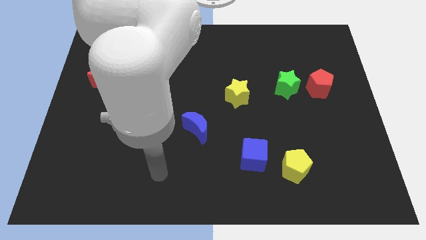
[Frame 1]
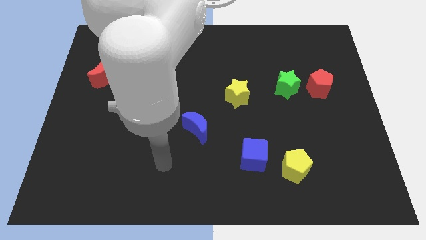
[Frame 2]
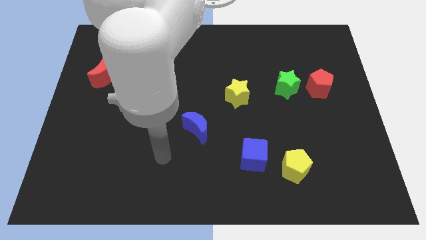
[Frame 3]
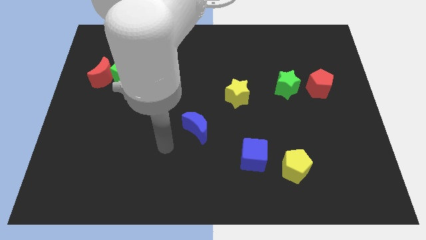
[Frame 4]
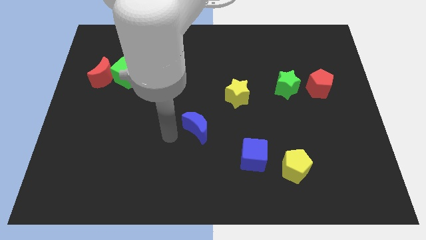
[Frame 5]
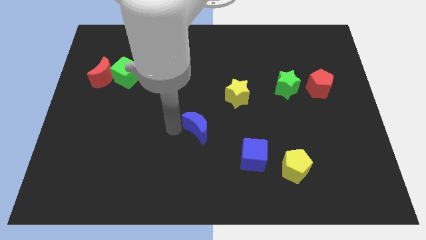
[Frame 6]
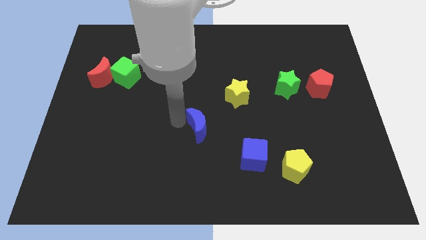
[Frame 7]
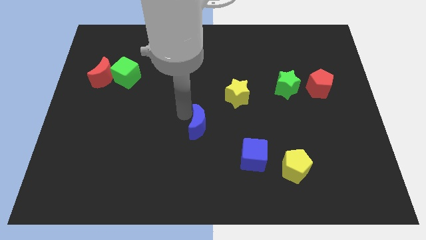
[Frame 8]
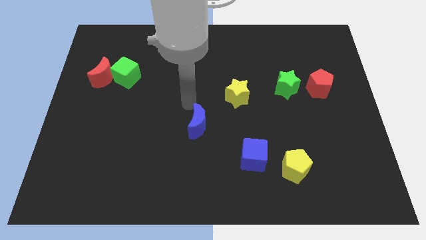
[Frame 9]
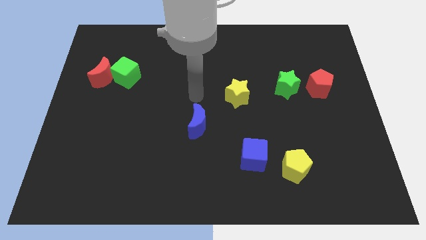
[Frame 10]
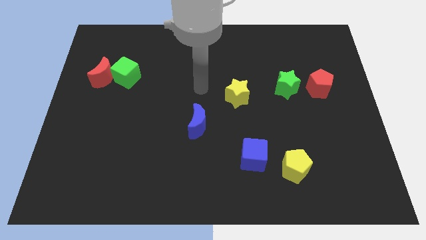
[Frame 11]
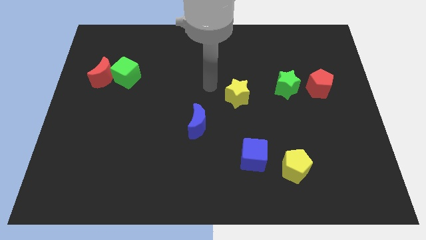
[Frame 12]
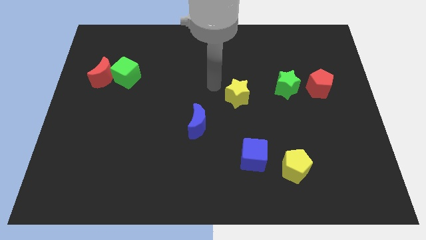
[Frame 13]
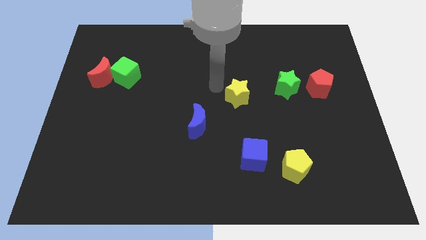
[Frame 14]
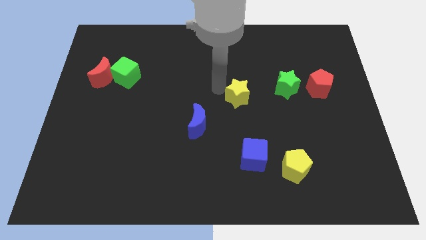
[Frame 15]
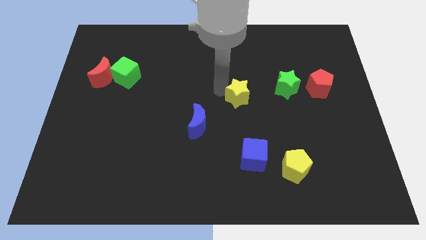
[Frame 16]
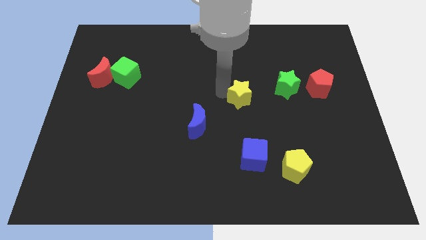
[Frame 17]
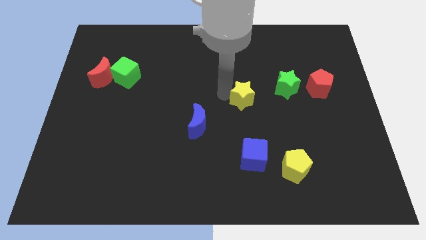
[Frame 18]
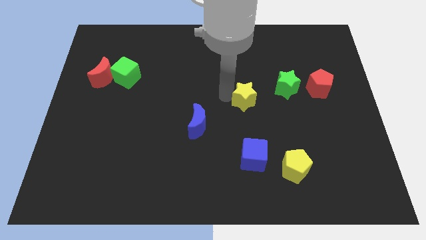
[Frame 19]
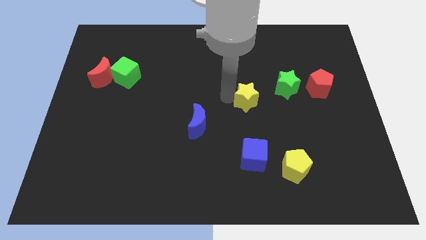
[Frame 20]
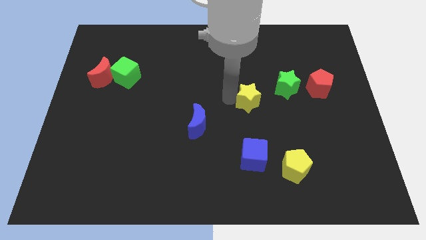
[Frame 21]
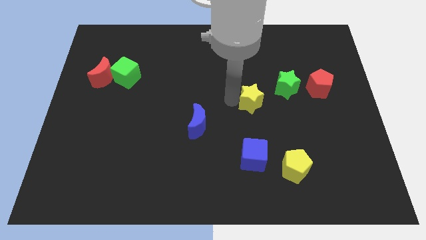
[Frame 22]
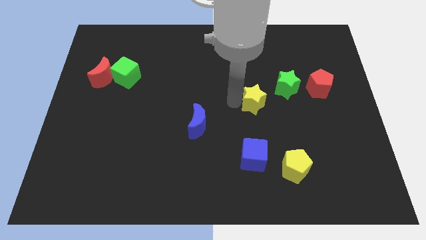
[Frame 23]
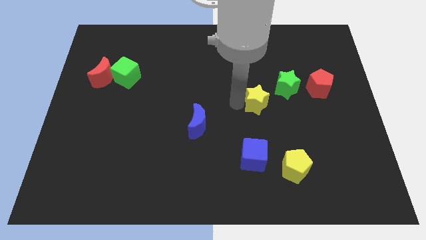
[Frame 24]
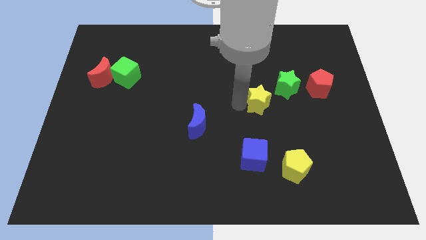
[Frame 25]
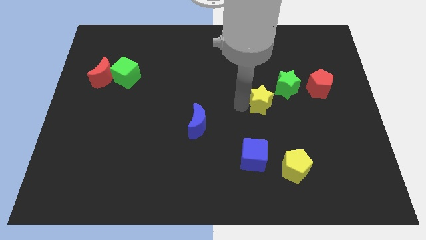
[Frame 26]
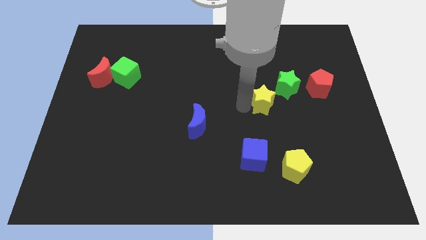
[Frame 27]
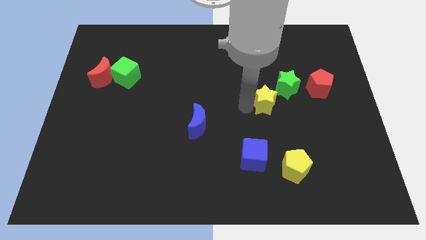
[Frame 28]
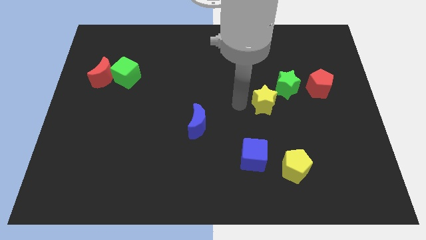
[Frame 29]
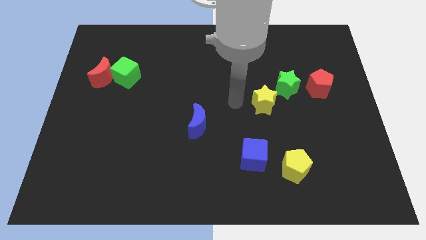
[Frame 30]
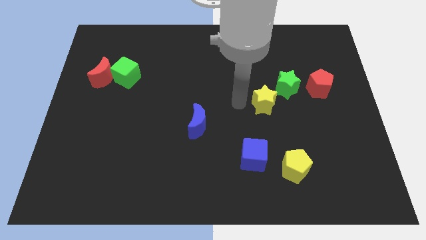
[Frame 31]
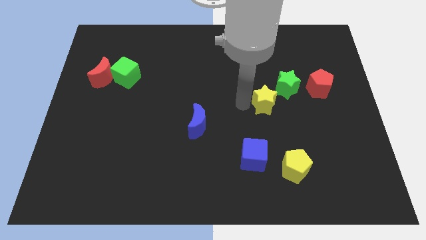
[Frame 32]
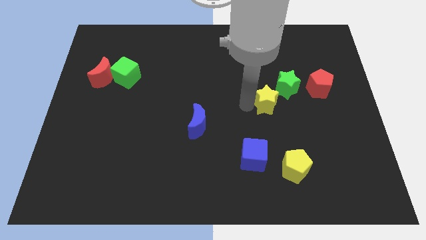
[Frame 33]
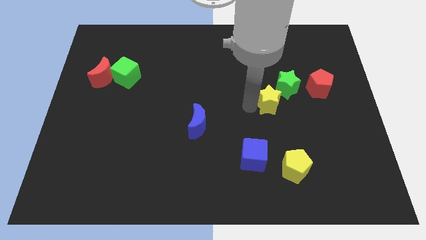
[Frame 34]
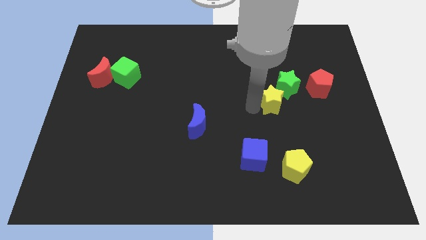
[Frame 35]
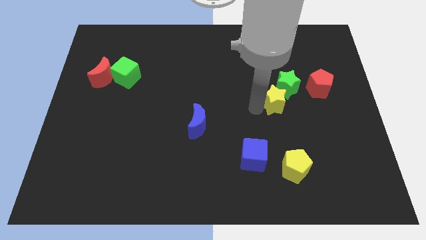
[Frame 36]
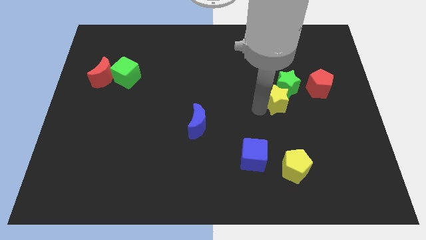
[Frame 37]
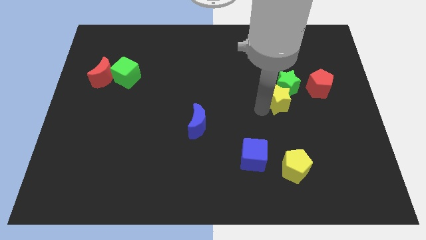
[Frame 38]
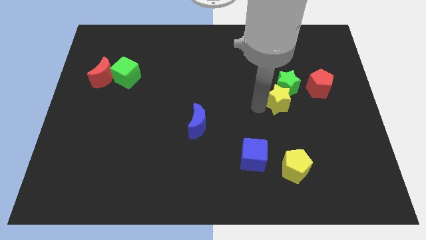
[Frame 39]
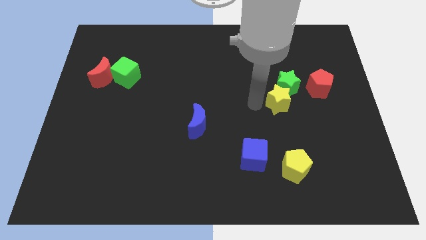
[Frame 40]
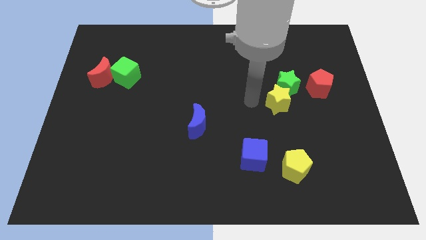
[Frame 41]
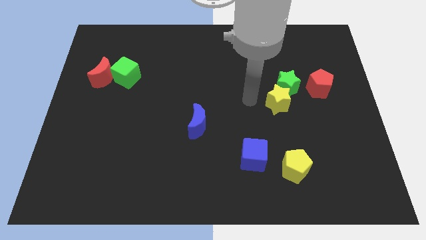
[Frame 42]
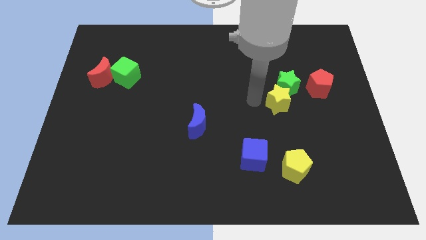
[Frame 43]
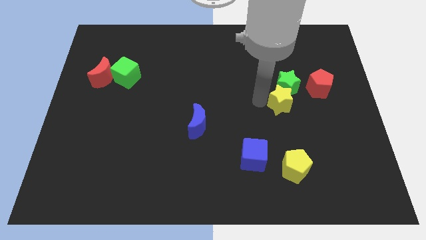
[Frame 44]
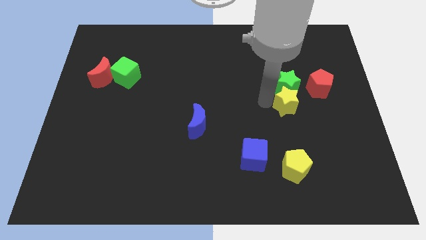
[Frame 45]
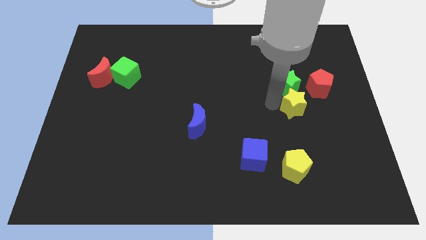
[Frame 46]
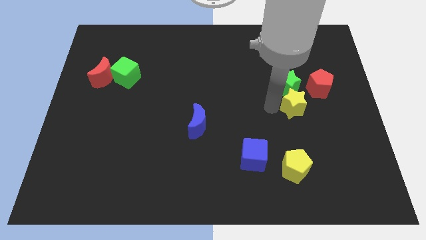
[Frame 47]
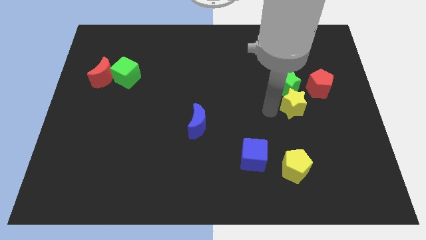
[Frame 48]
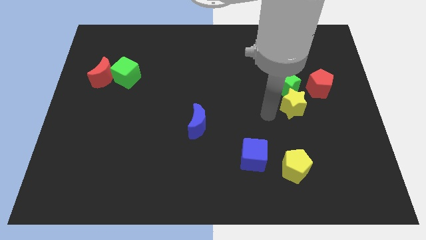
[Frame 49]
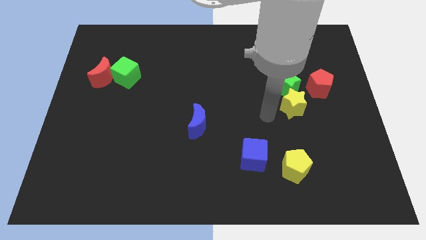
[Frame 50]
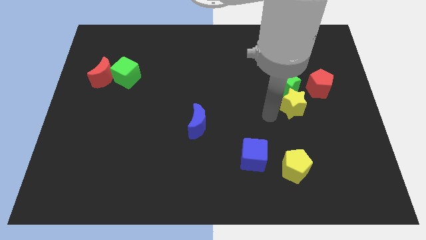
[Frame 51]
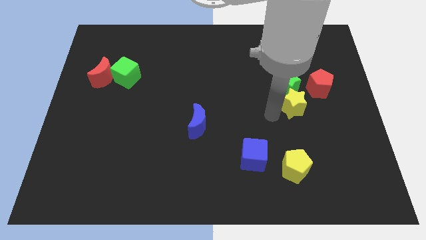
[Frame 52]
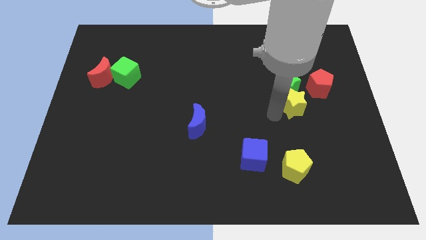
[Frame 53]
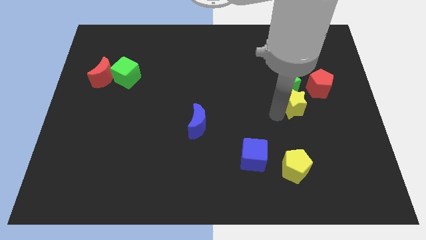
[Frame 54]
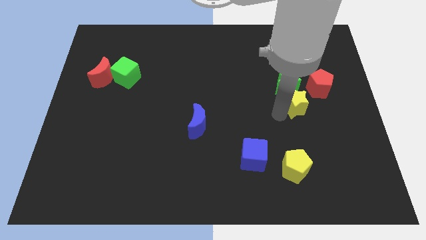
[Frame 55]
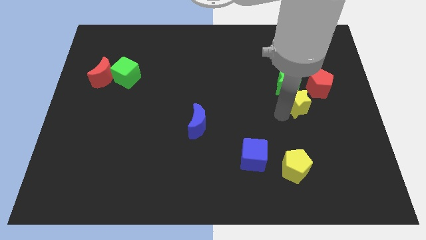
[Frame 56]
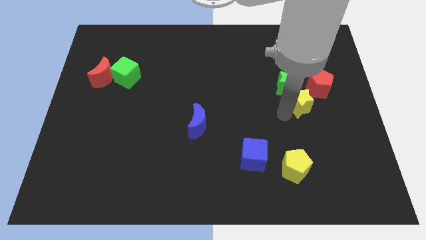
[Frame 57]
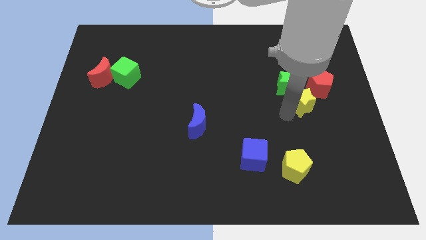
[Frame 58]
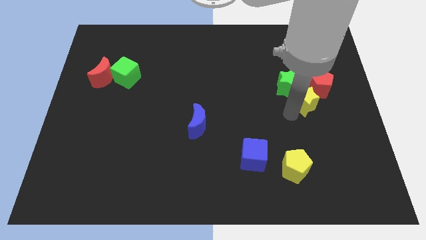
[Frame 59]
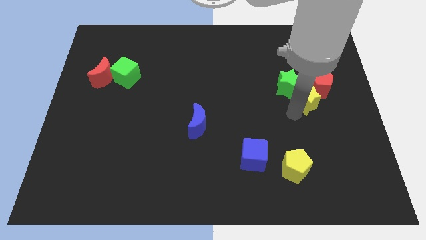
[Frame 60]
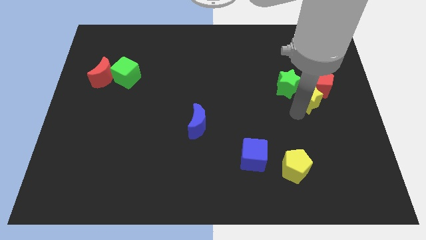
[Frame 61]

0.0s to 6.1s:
push the yellow star close to the red pentagon

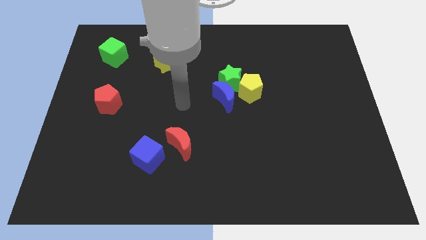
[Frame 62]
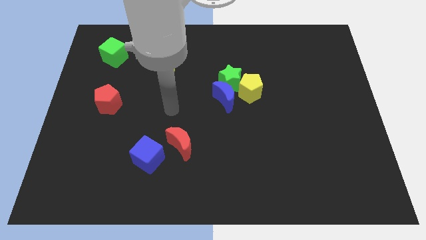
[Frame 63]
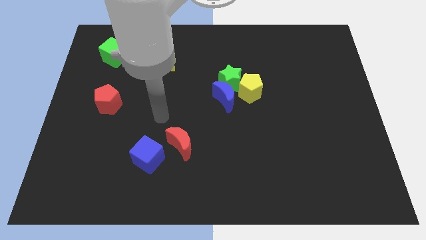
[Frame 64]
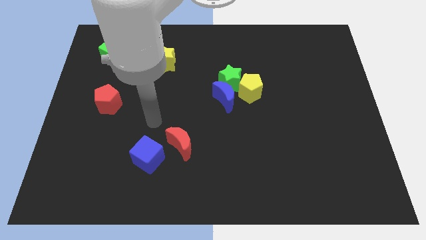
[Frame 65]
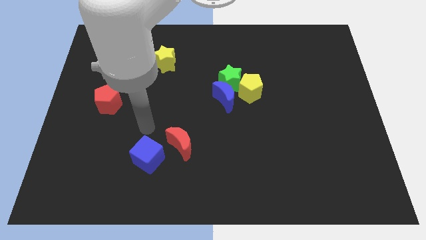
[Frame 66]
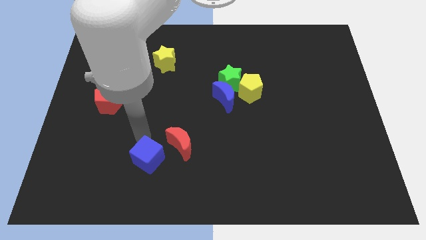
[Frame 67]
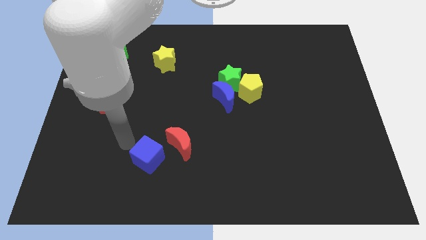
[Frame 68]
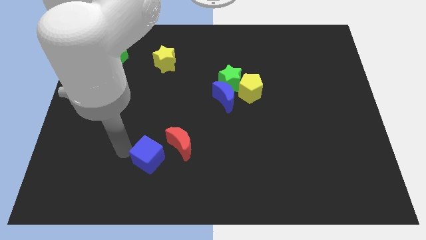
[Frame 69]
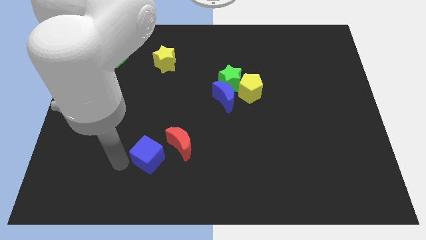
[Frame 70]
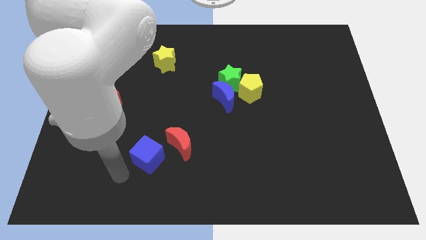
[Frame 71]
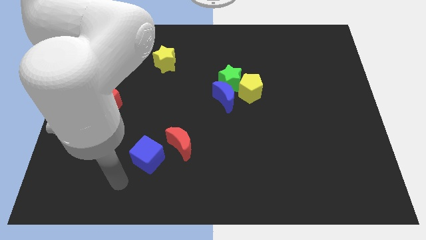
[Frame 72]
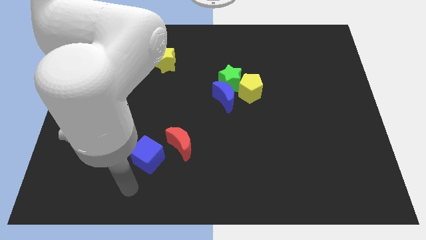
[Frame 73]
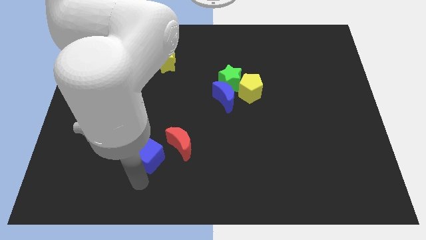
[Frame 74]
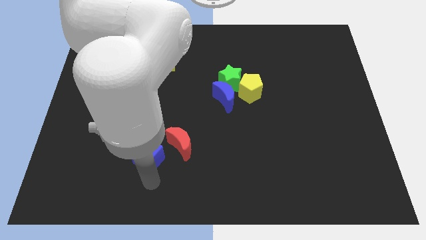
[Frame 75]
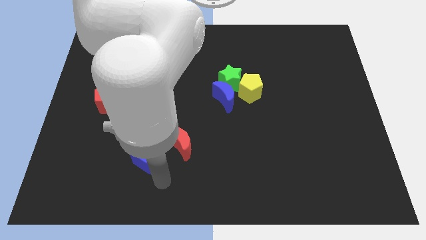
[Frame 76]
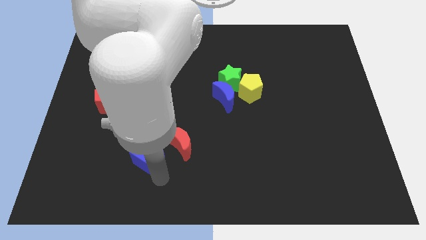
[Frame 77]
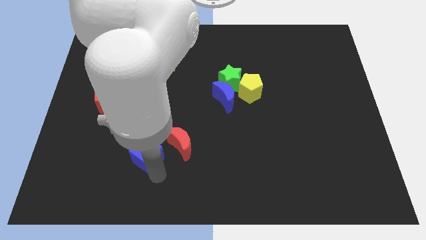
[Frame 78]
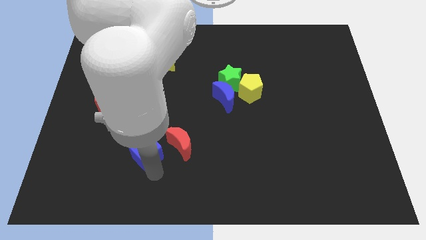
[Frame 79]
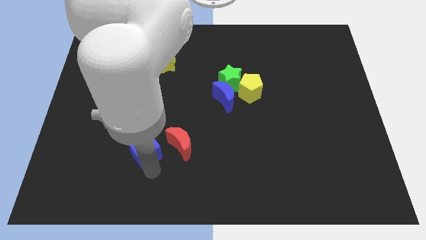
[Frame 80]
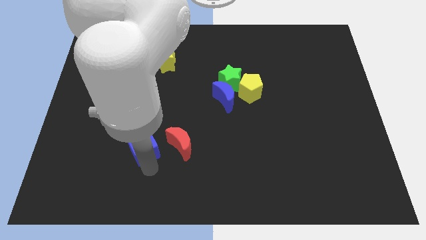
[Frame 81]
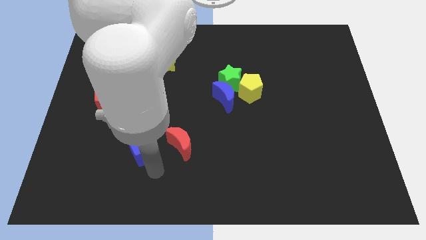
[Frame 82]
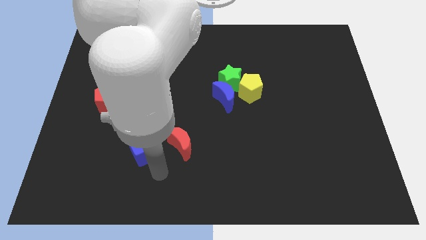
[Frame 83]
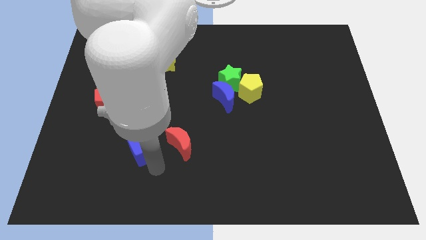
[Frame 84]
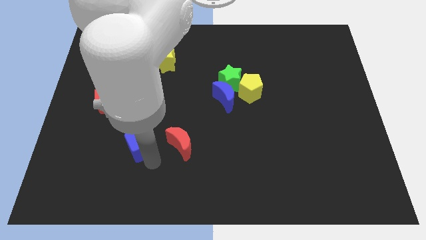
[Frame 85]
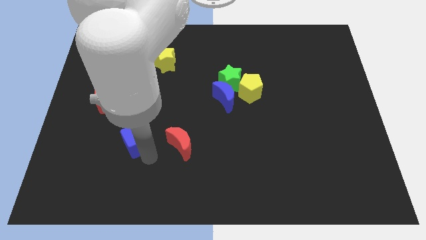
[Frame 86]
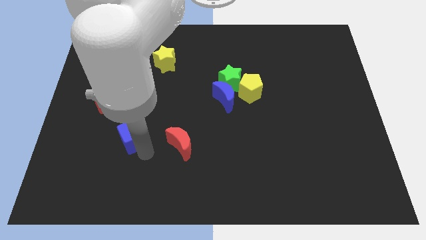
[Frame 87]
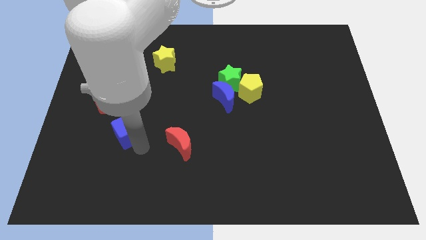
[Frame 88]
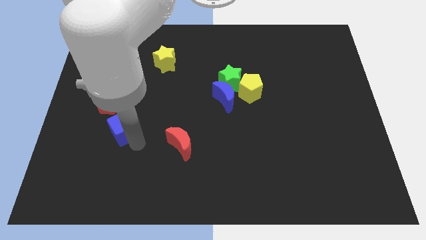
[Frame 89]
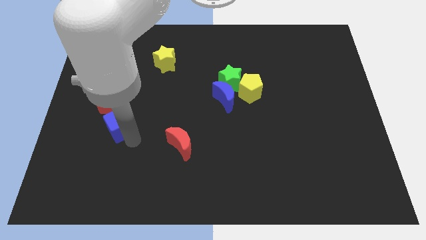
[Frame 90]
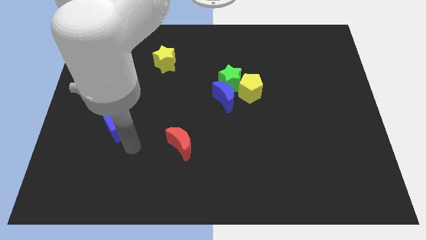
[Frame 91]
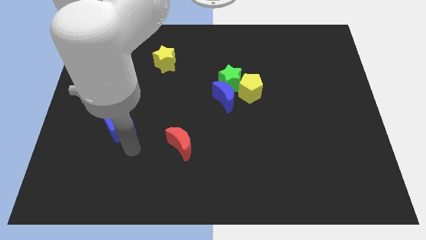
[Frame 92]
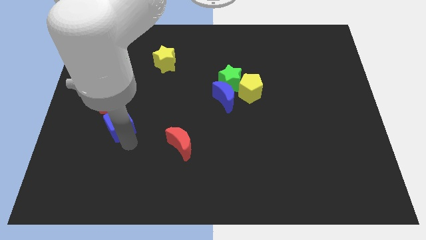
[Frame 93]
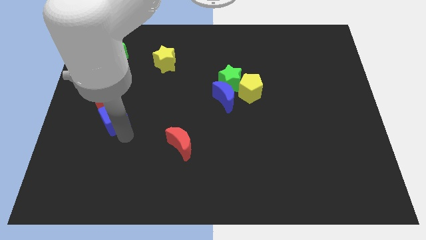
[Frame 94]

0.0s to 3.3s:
move the blue cube towards the red pentagon
